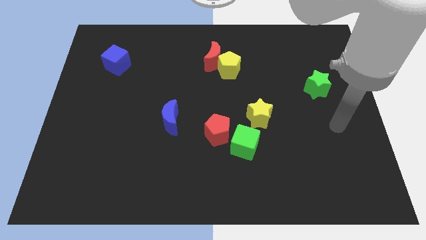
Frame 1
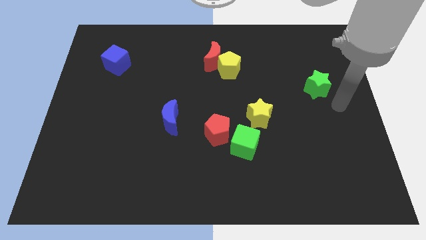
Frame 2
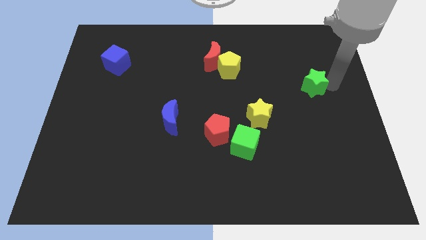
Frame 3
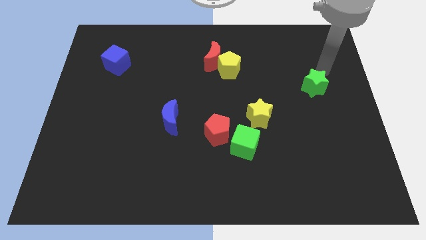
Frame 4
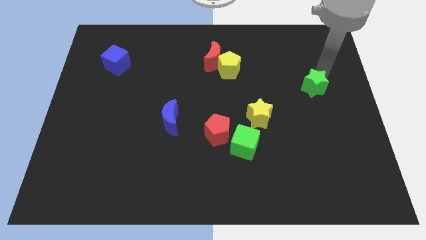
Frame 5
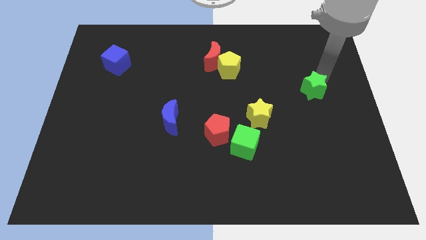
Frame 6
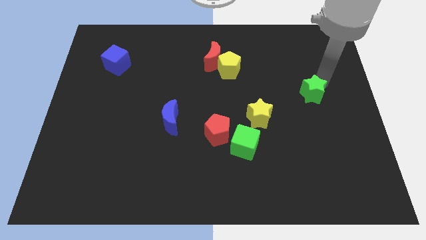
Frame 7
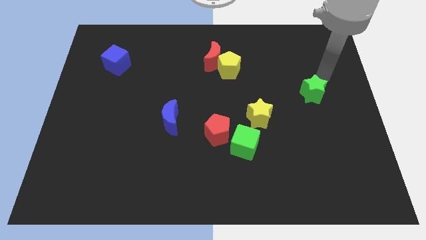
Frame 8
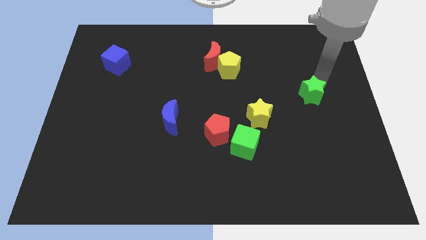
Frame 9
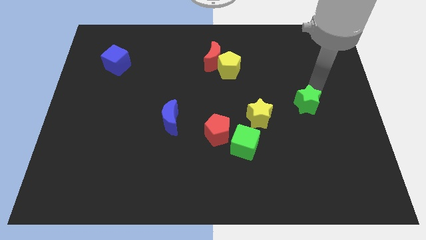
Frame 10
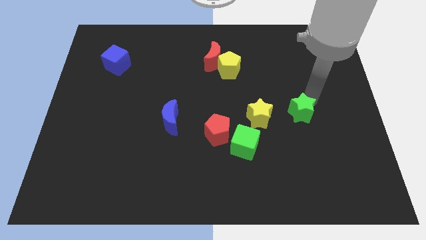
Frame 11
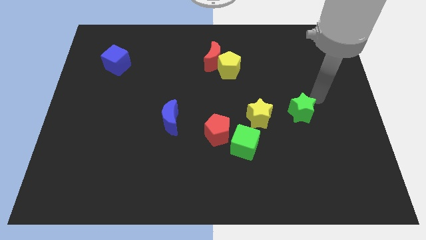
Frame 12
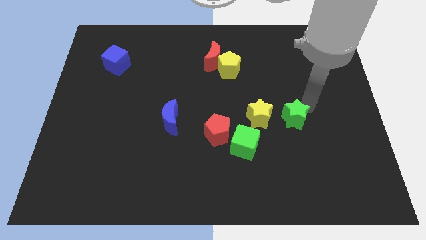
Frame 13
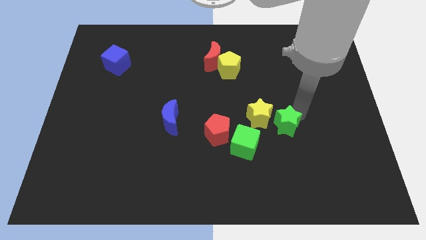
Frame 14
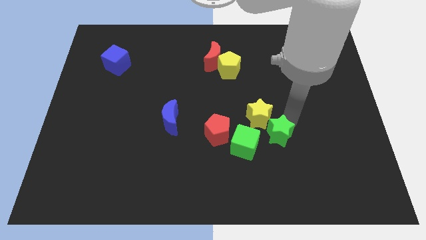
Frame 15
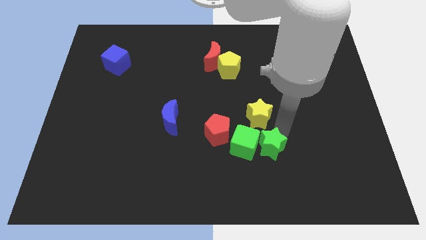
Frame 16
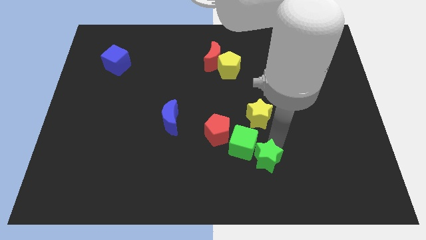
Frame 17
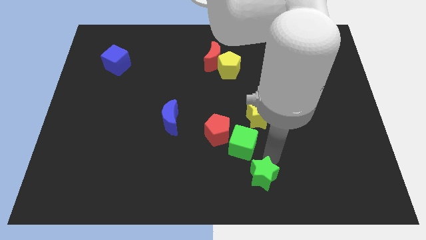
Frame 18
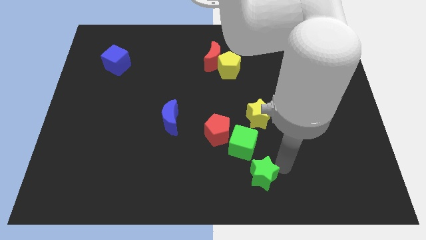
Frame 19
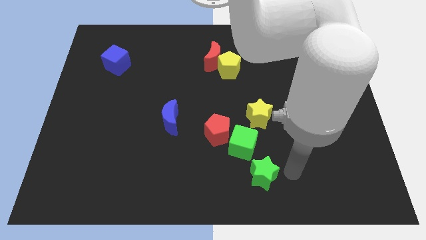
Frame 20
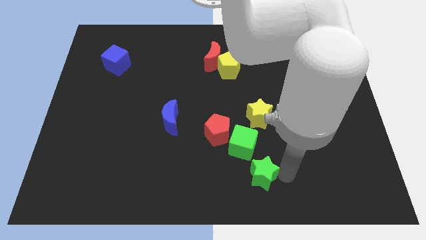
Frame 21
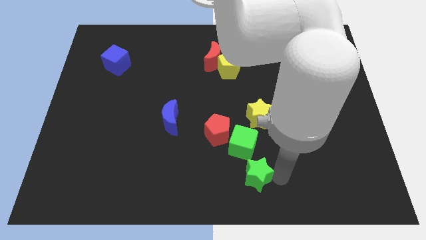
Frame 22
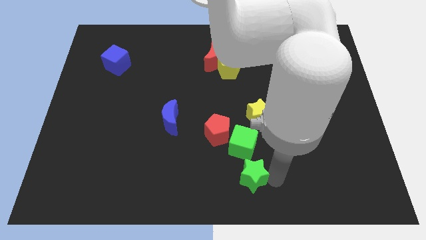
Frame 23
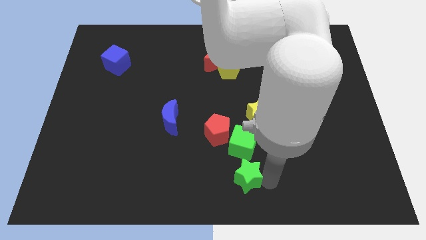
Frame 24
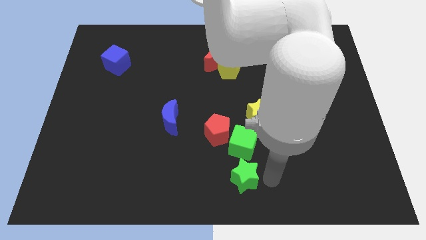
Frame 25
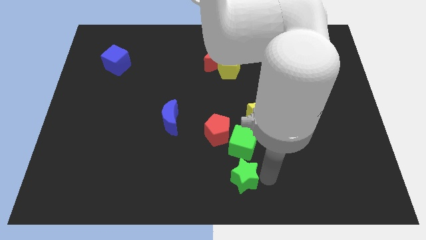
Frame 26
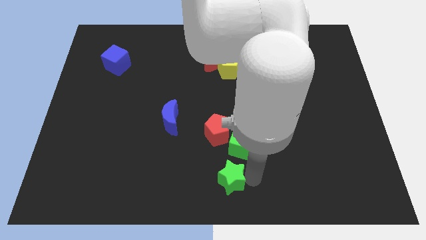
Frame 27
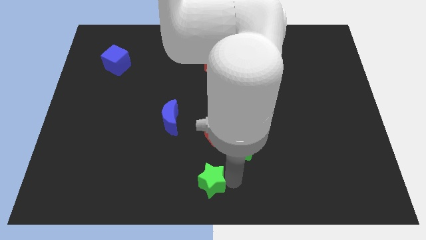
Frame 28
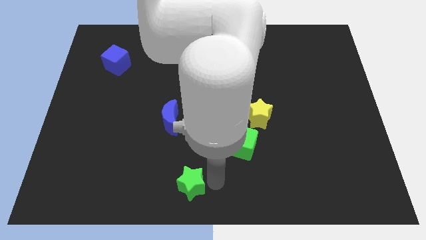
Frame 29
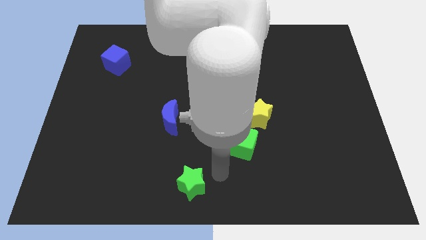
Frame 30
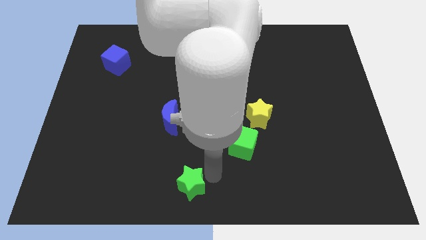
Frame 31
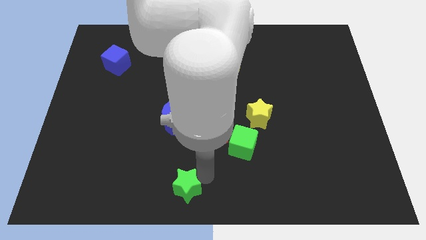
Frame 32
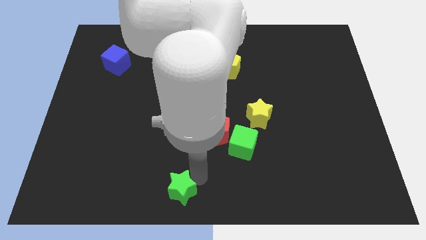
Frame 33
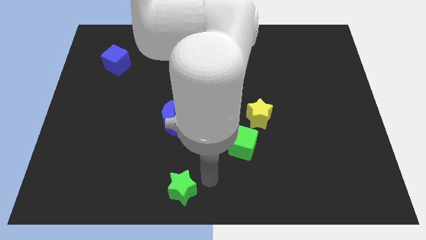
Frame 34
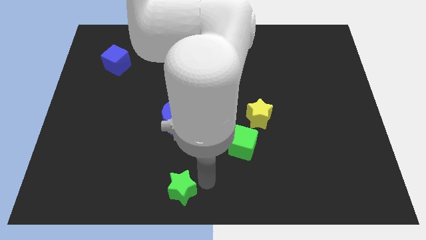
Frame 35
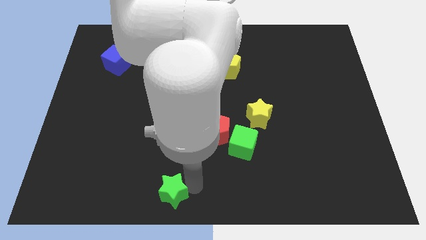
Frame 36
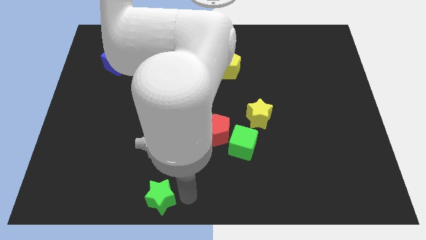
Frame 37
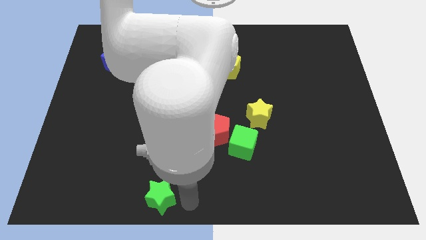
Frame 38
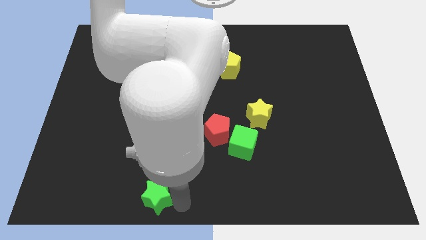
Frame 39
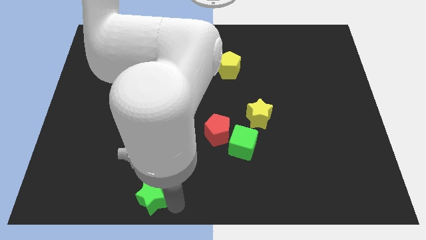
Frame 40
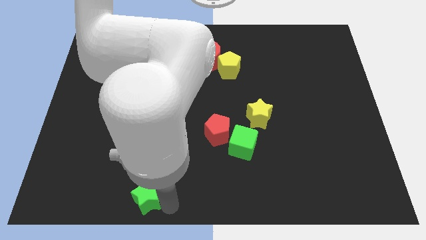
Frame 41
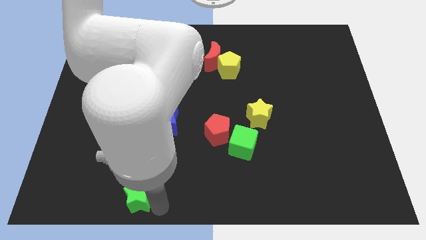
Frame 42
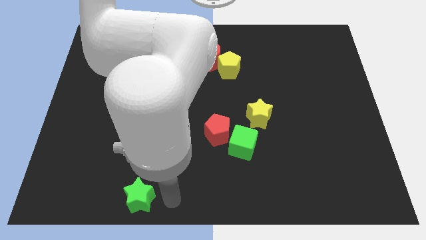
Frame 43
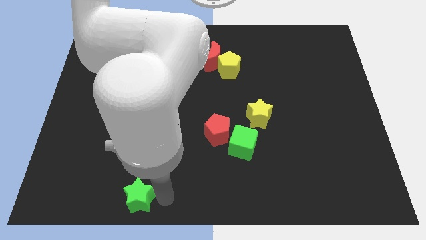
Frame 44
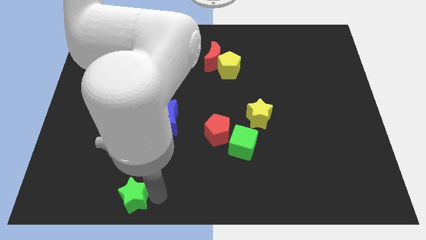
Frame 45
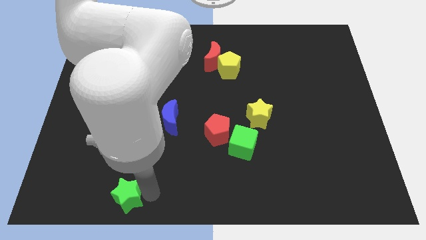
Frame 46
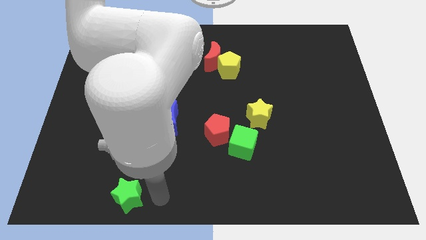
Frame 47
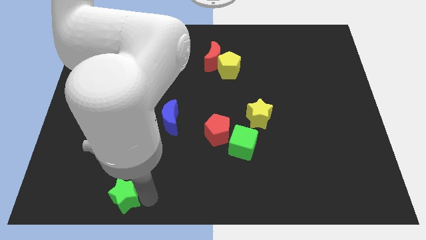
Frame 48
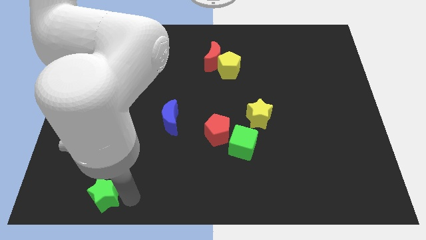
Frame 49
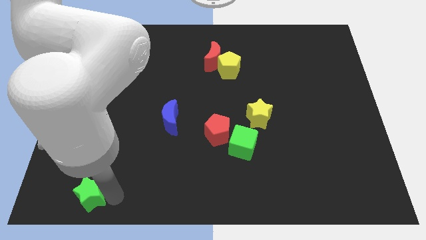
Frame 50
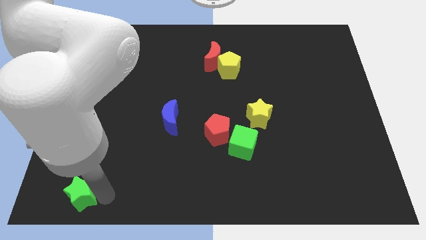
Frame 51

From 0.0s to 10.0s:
push the green star to the bottom left

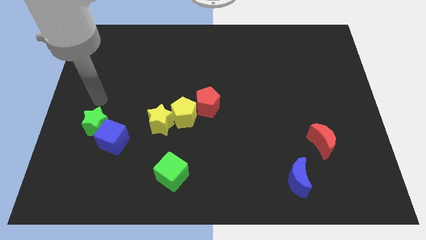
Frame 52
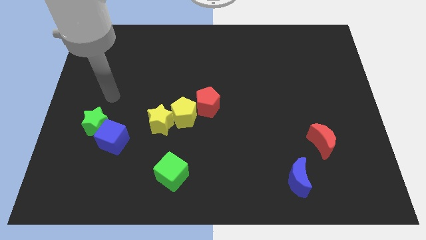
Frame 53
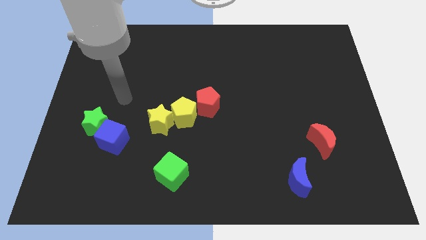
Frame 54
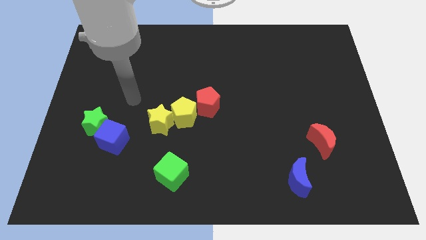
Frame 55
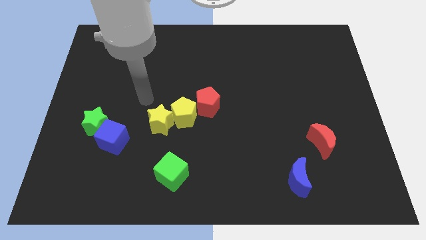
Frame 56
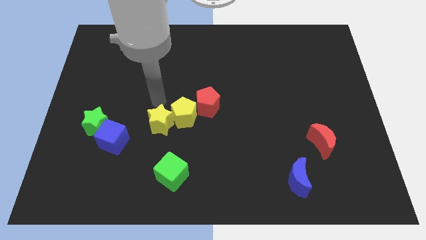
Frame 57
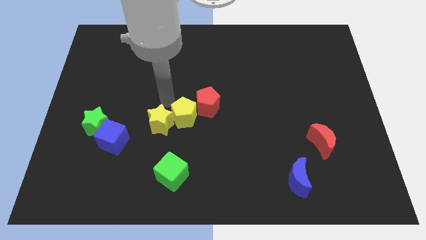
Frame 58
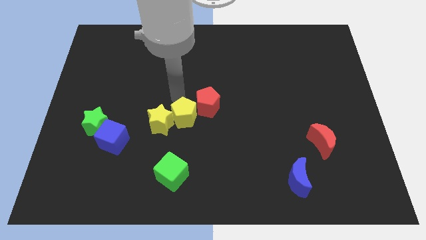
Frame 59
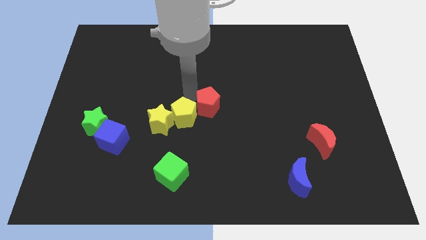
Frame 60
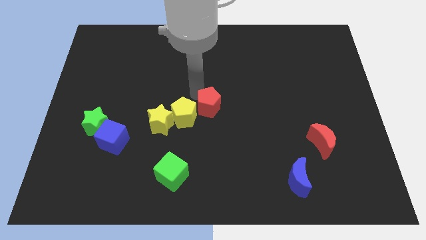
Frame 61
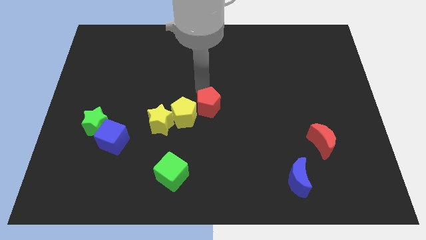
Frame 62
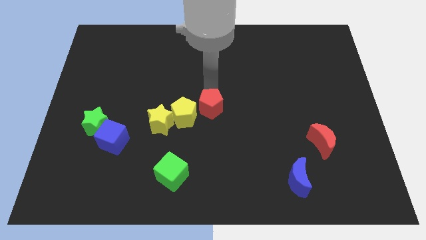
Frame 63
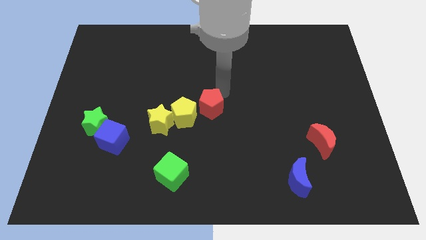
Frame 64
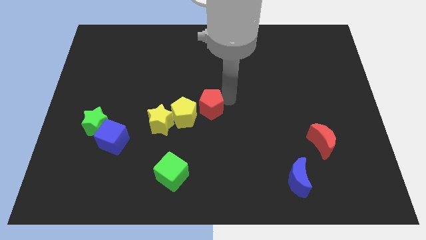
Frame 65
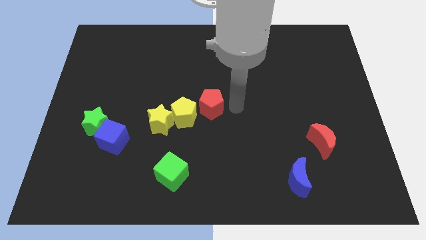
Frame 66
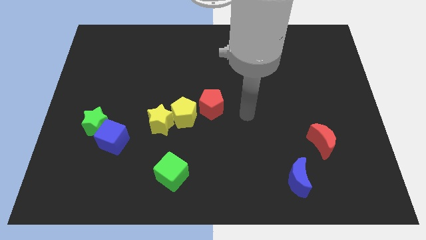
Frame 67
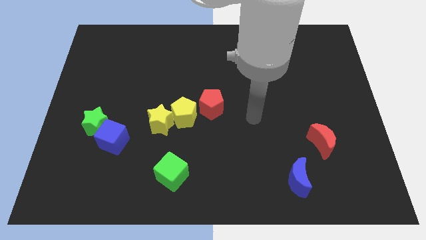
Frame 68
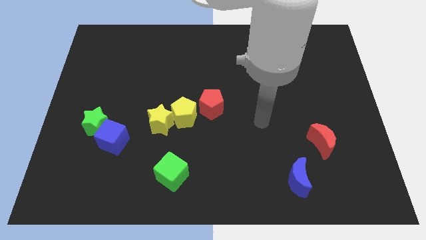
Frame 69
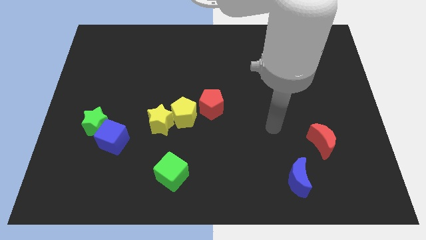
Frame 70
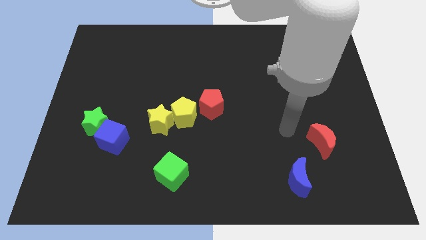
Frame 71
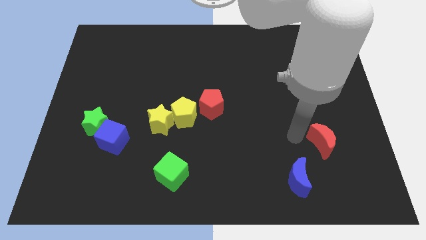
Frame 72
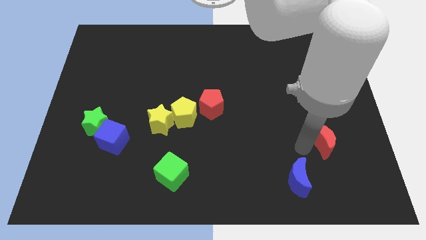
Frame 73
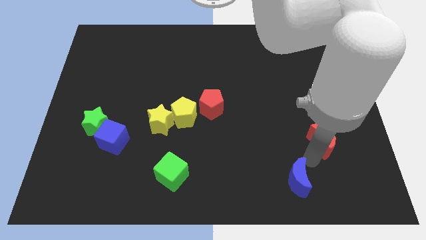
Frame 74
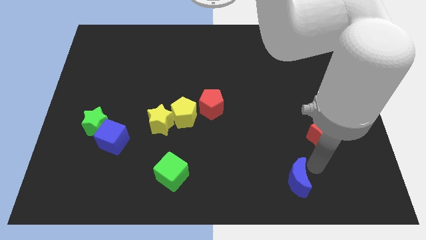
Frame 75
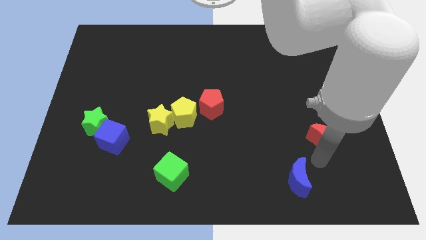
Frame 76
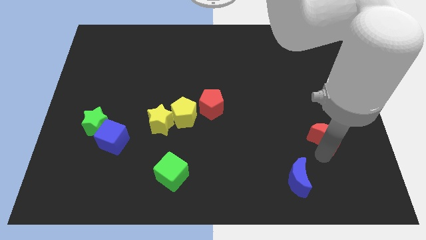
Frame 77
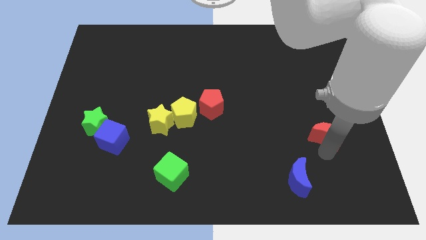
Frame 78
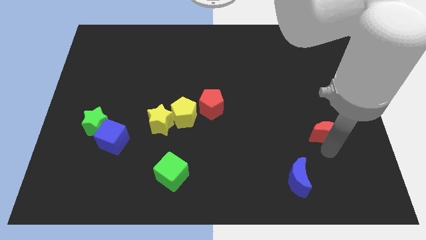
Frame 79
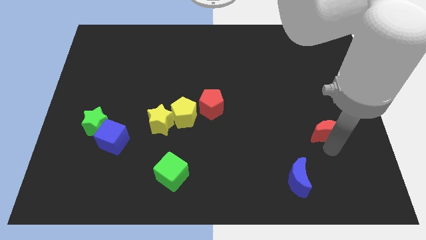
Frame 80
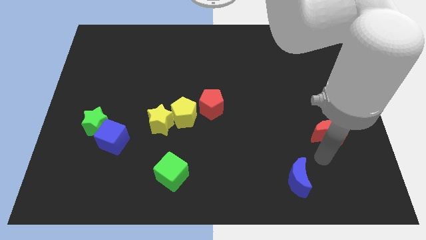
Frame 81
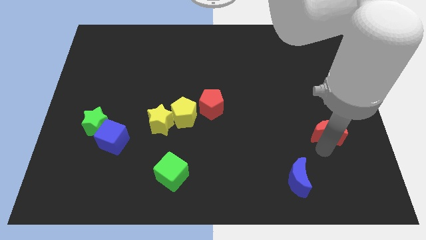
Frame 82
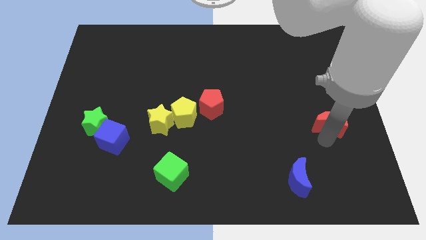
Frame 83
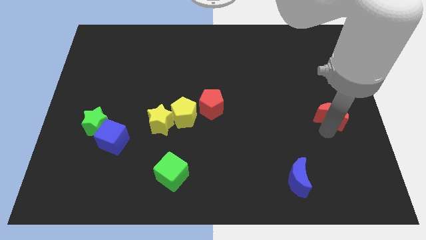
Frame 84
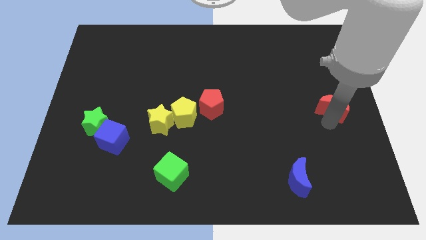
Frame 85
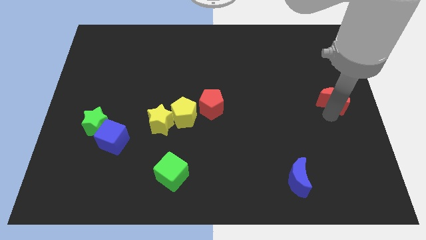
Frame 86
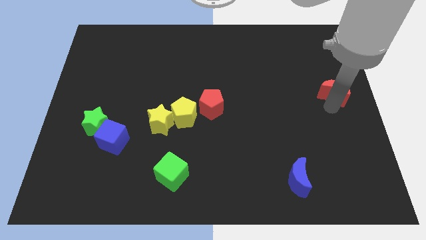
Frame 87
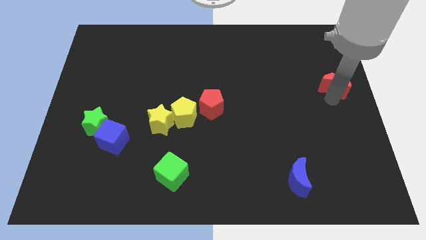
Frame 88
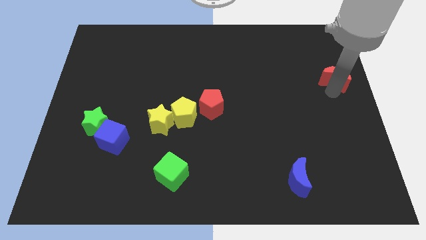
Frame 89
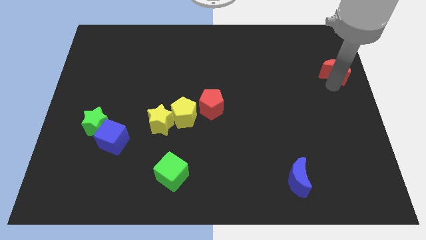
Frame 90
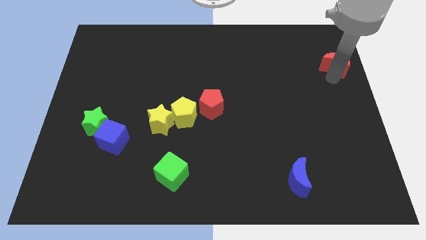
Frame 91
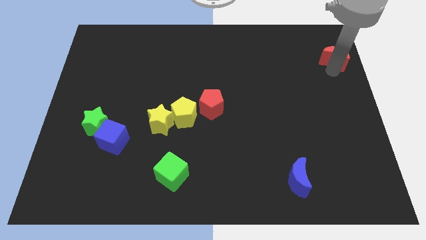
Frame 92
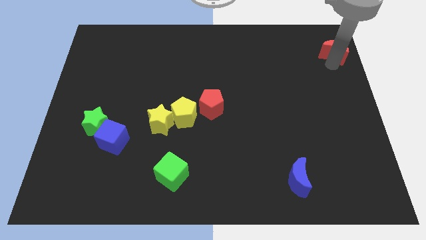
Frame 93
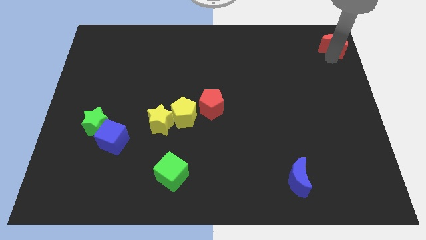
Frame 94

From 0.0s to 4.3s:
put the red moon to the top right of the board
